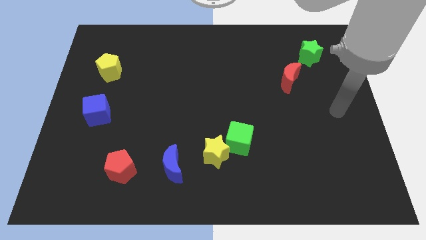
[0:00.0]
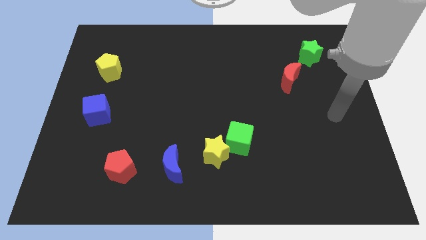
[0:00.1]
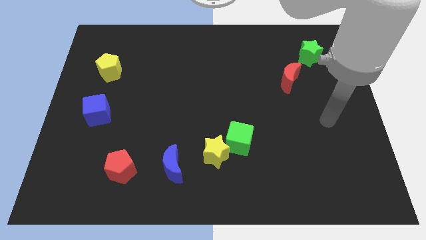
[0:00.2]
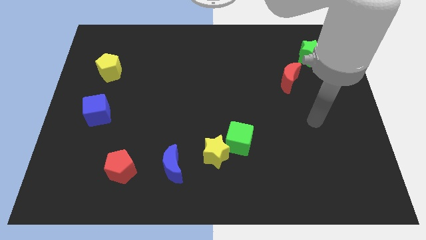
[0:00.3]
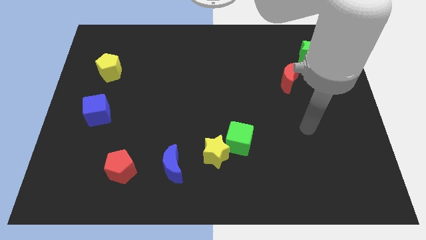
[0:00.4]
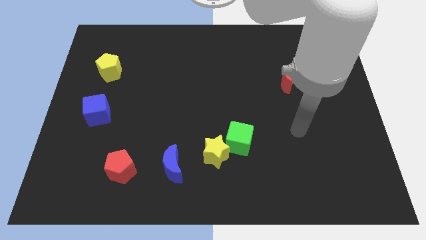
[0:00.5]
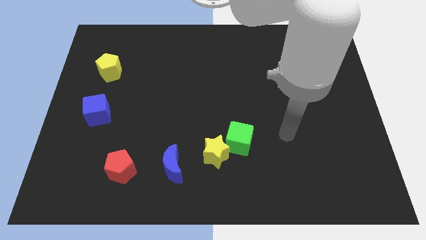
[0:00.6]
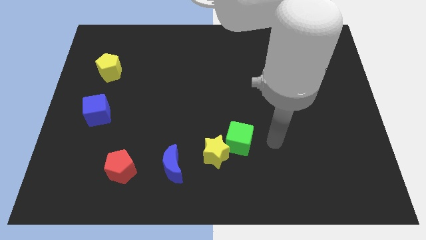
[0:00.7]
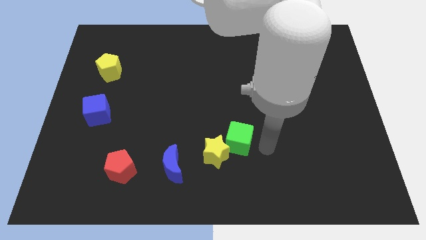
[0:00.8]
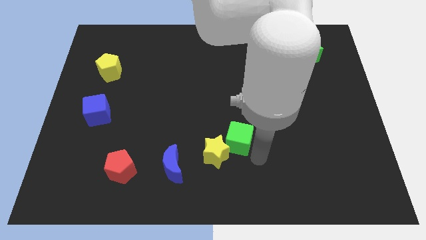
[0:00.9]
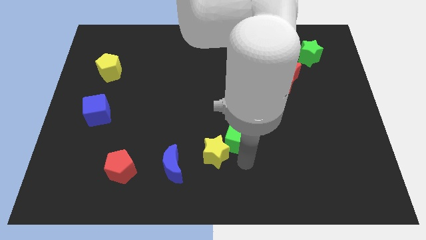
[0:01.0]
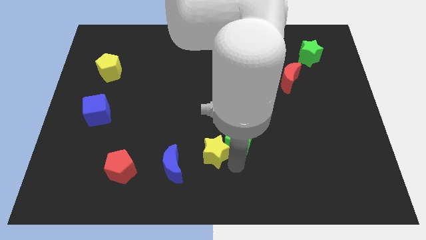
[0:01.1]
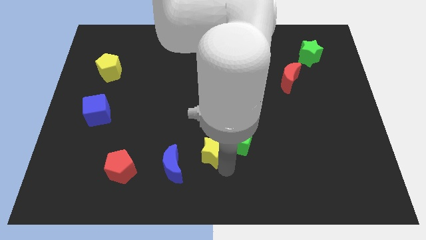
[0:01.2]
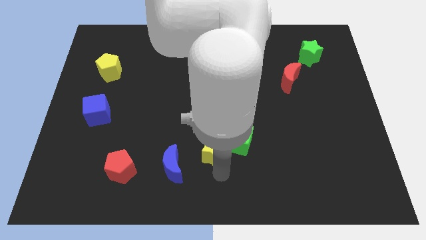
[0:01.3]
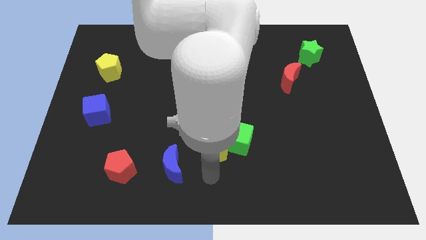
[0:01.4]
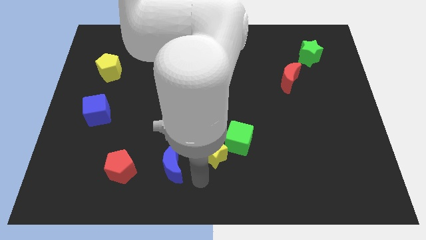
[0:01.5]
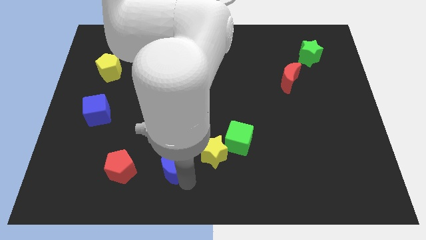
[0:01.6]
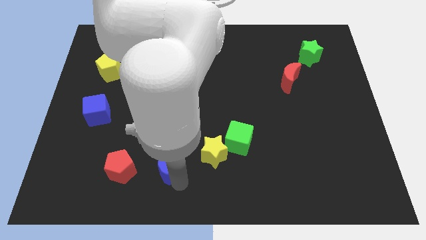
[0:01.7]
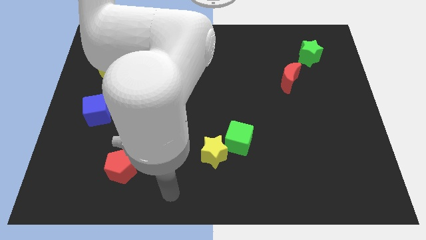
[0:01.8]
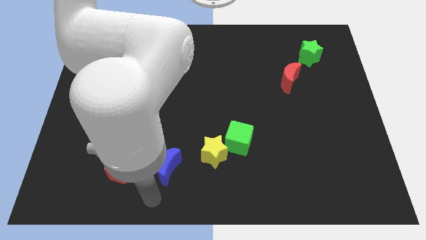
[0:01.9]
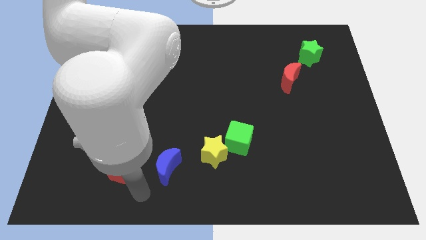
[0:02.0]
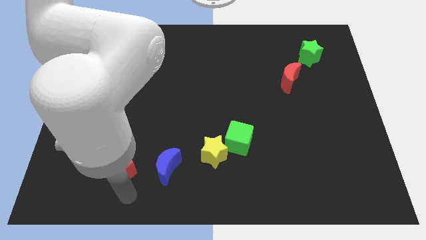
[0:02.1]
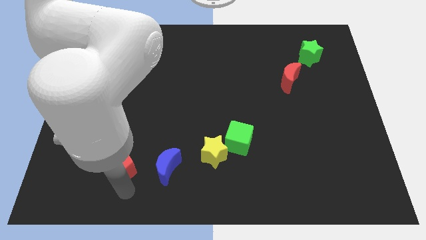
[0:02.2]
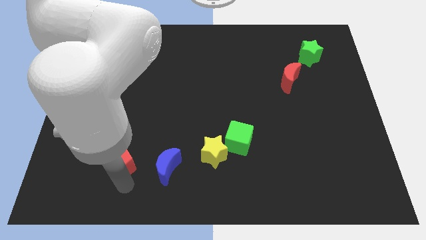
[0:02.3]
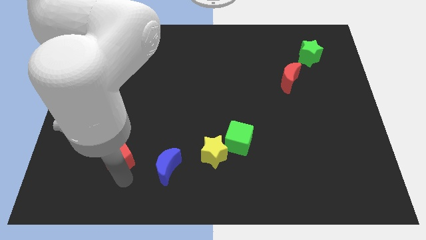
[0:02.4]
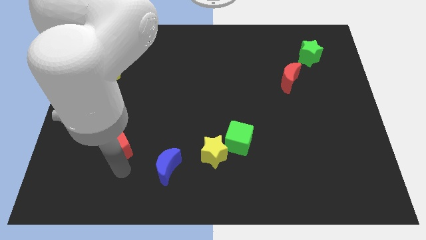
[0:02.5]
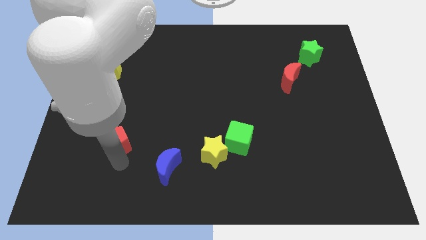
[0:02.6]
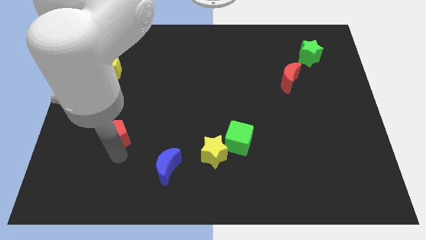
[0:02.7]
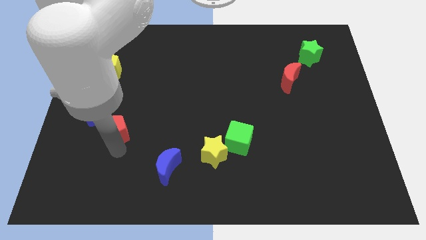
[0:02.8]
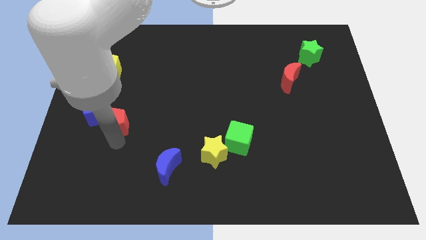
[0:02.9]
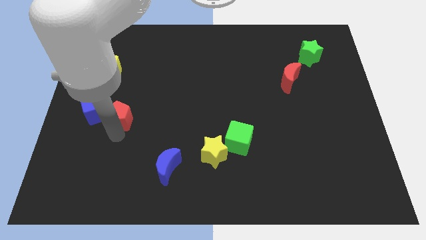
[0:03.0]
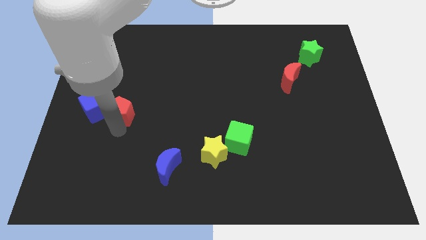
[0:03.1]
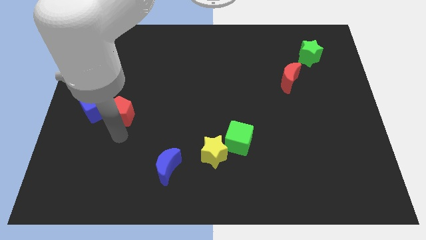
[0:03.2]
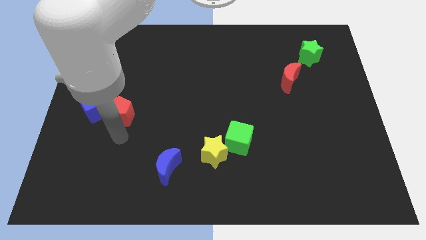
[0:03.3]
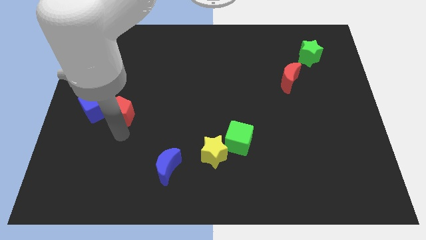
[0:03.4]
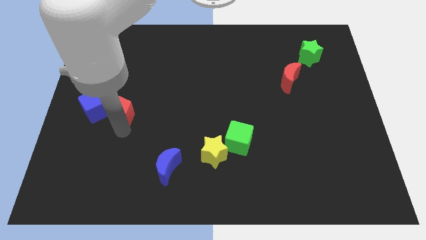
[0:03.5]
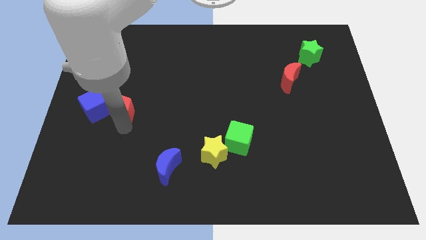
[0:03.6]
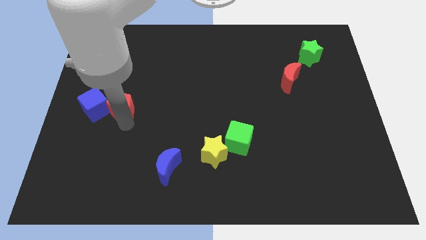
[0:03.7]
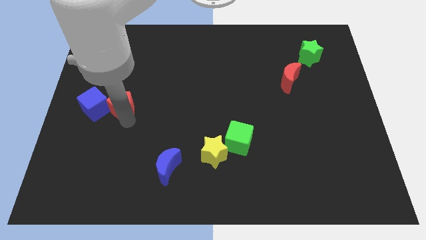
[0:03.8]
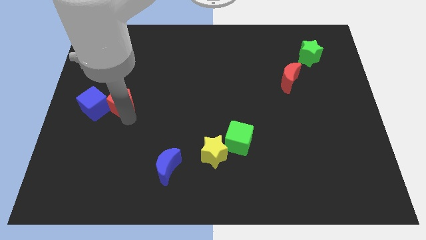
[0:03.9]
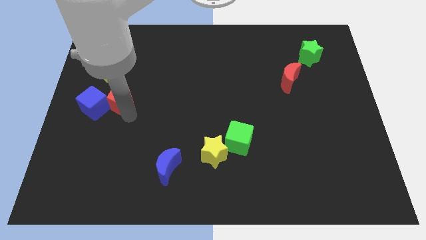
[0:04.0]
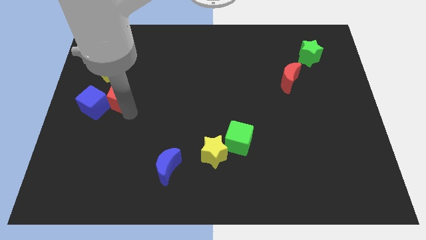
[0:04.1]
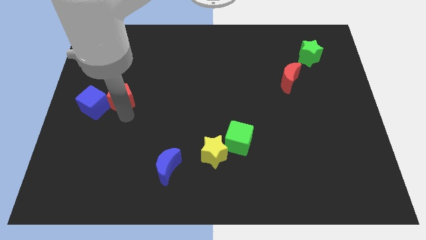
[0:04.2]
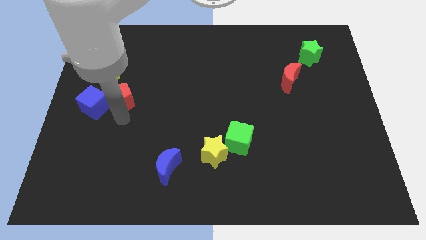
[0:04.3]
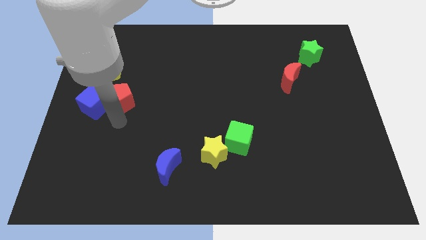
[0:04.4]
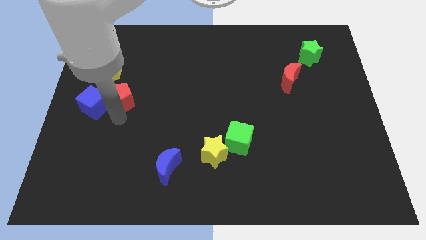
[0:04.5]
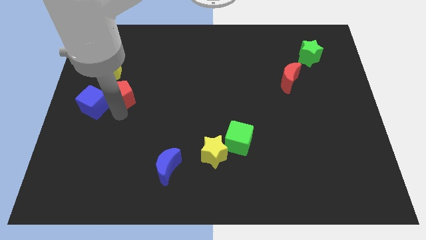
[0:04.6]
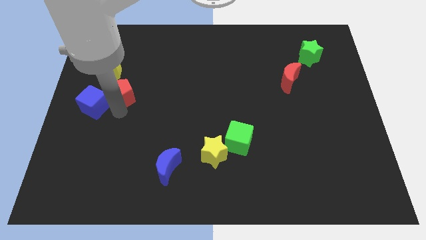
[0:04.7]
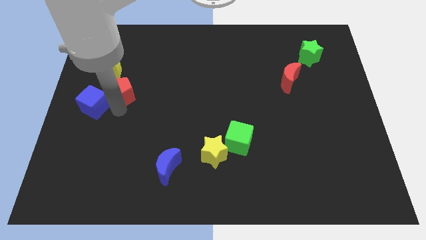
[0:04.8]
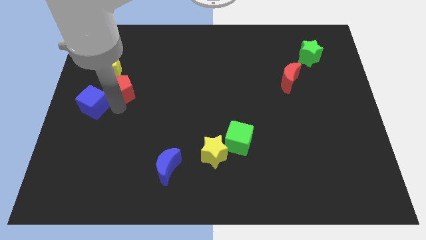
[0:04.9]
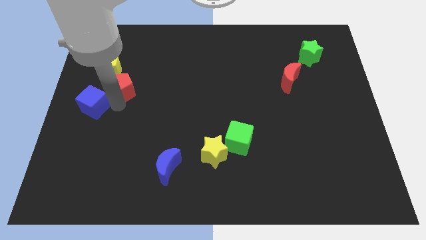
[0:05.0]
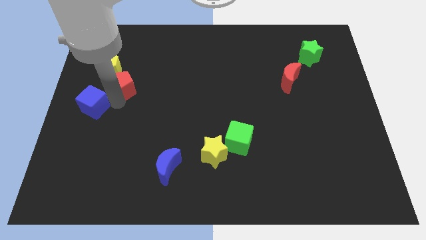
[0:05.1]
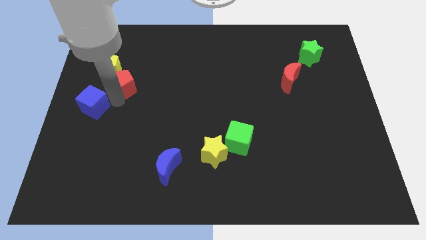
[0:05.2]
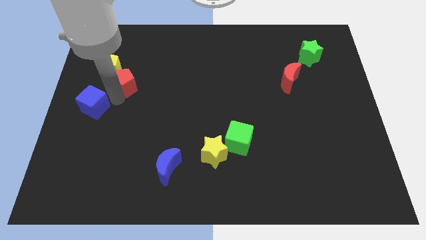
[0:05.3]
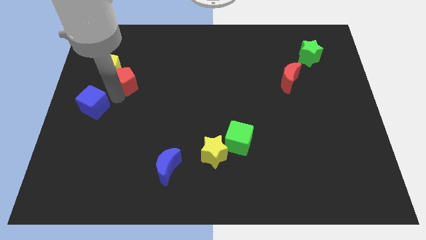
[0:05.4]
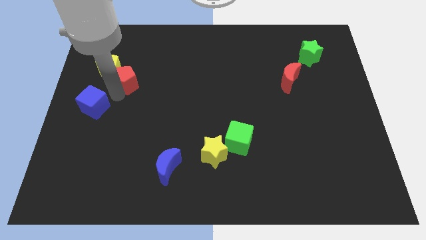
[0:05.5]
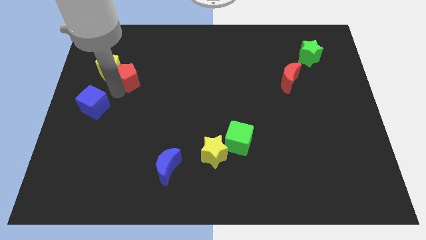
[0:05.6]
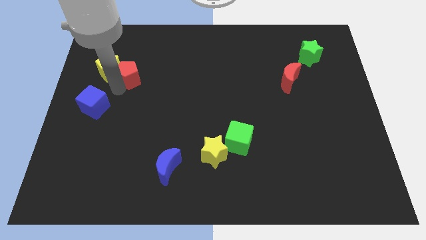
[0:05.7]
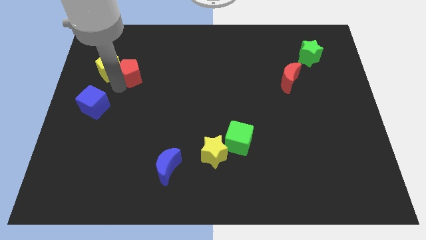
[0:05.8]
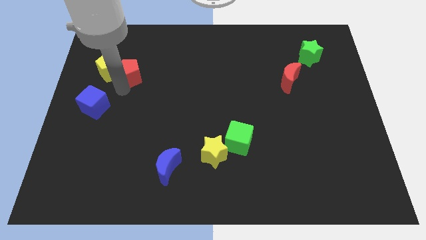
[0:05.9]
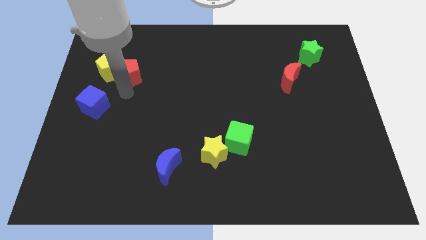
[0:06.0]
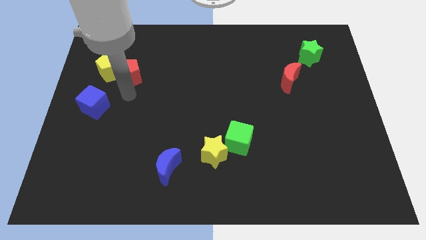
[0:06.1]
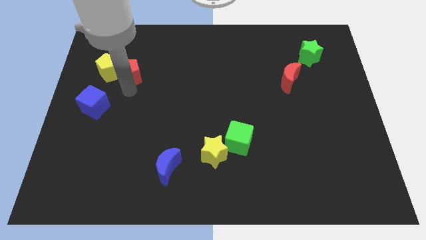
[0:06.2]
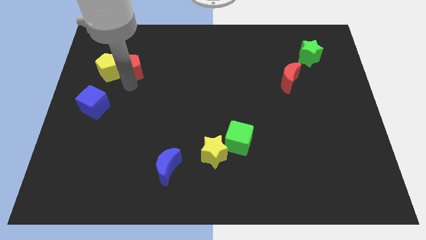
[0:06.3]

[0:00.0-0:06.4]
slide the red pentagon to the top right side of the yellow pentagon
